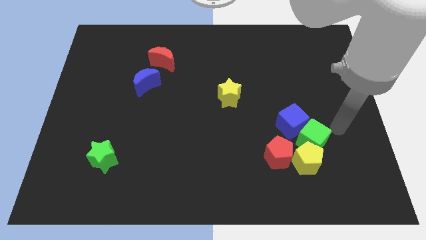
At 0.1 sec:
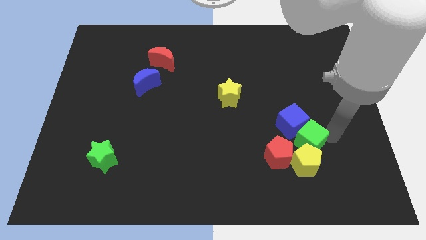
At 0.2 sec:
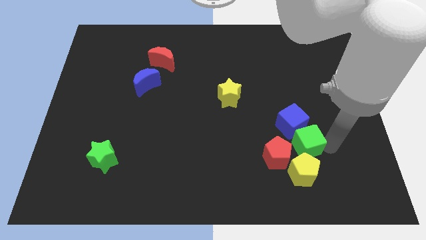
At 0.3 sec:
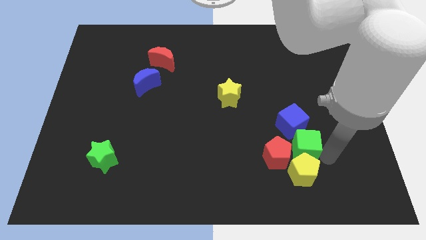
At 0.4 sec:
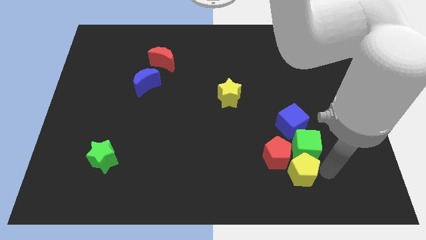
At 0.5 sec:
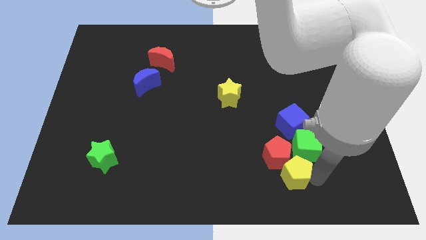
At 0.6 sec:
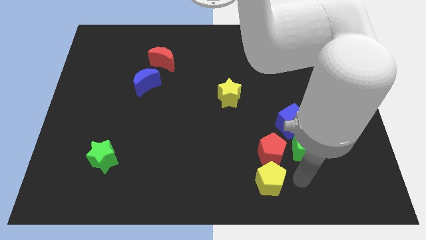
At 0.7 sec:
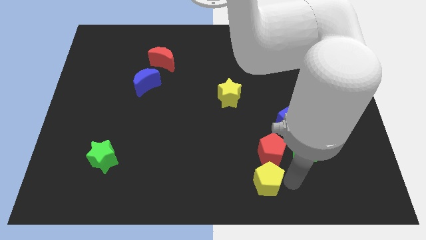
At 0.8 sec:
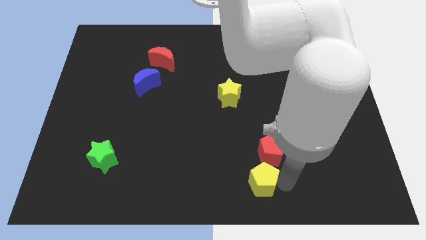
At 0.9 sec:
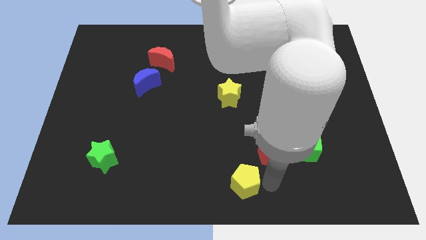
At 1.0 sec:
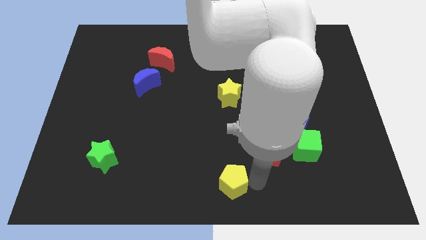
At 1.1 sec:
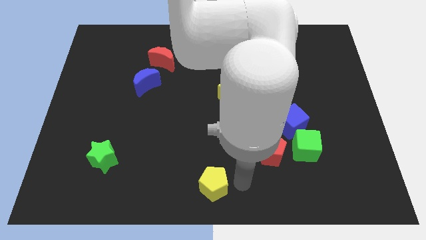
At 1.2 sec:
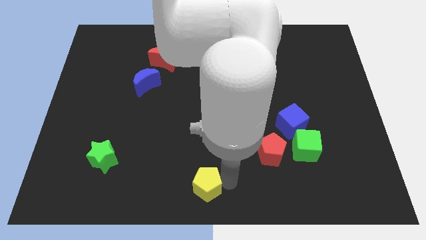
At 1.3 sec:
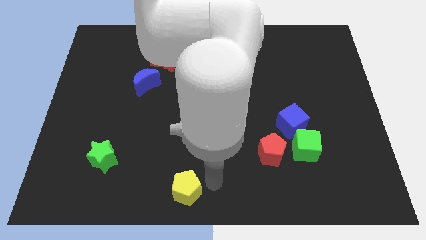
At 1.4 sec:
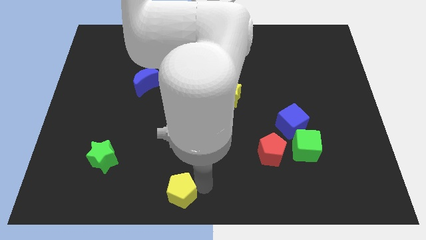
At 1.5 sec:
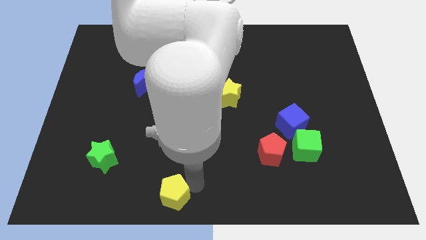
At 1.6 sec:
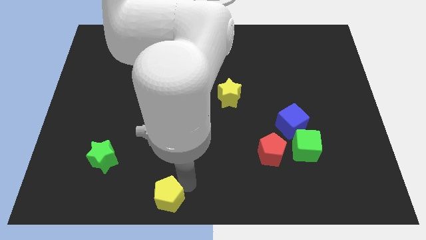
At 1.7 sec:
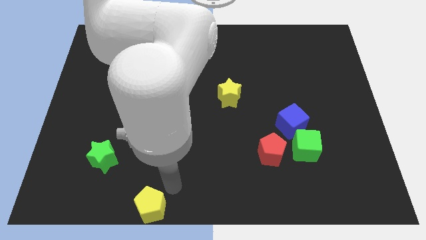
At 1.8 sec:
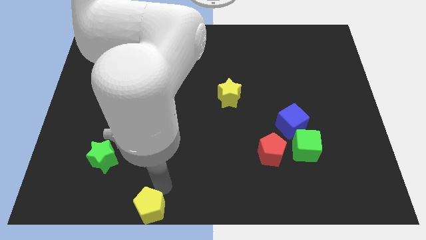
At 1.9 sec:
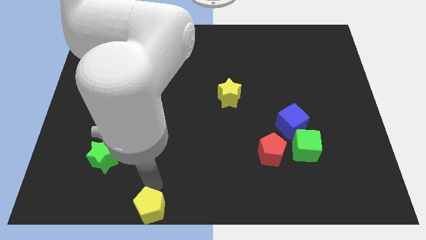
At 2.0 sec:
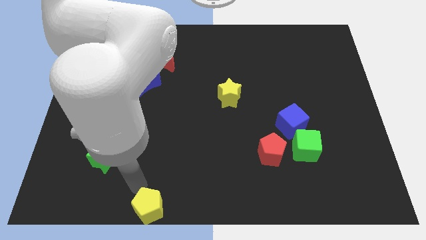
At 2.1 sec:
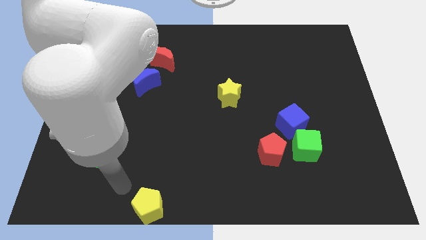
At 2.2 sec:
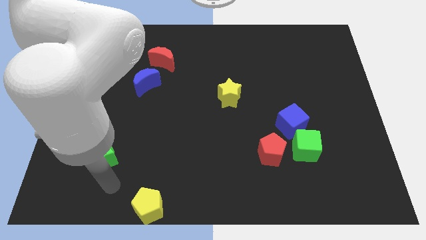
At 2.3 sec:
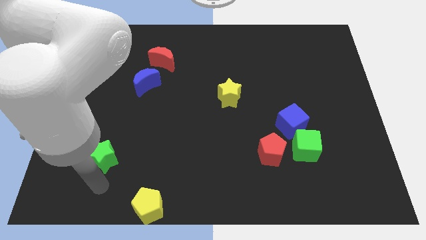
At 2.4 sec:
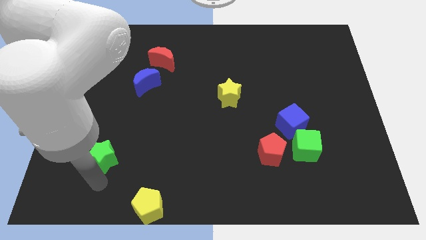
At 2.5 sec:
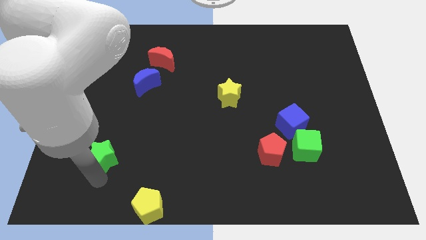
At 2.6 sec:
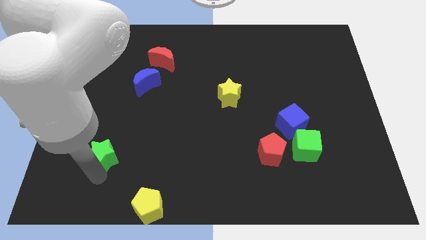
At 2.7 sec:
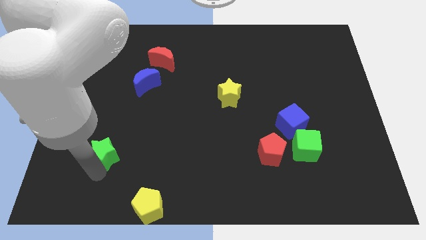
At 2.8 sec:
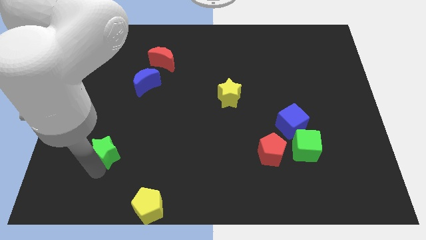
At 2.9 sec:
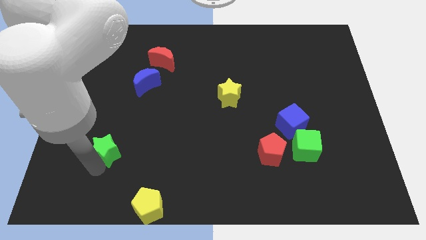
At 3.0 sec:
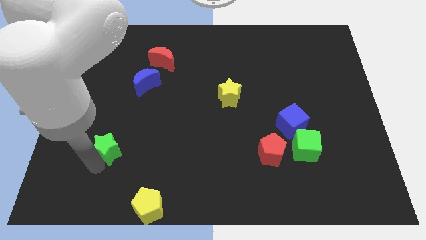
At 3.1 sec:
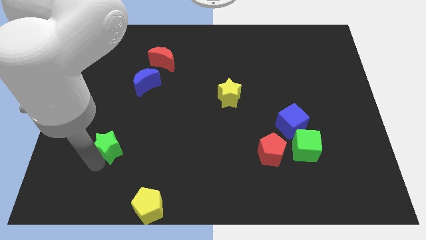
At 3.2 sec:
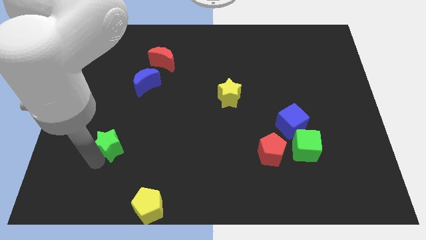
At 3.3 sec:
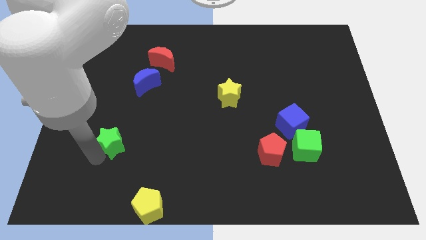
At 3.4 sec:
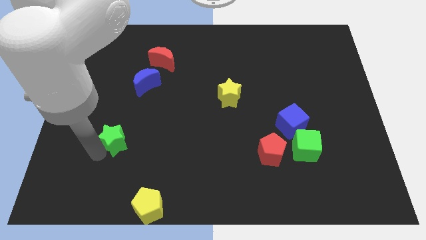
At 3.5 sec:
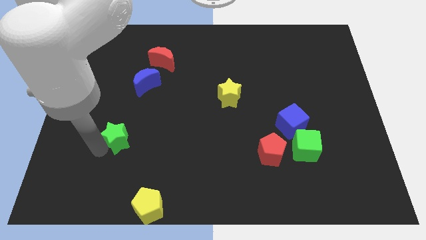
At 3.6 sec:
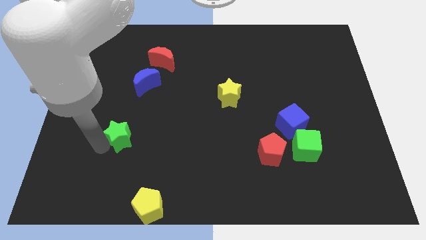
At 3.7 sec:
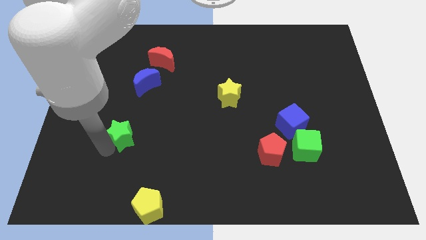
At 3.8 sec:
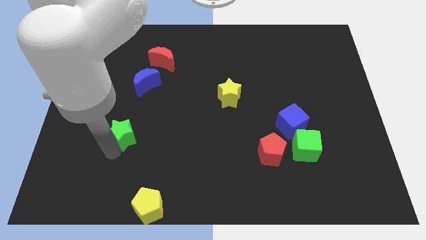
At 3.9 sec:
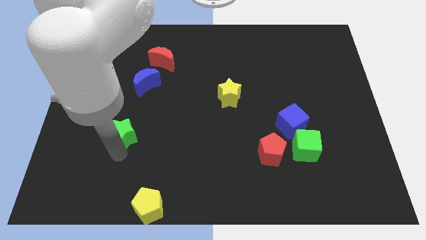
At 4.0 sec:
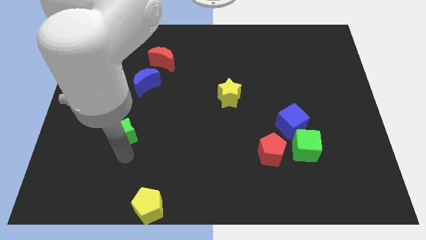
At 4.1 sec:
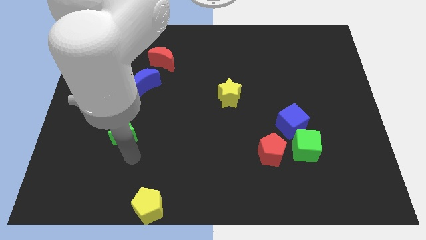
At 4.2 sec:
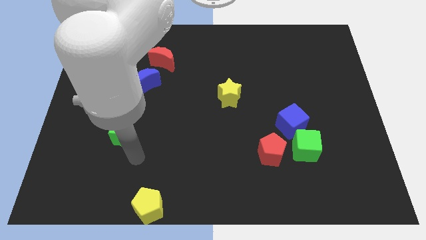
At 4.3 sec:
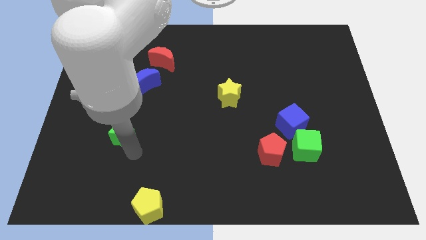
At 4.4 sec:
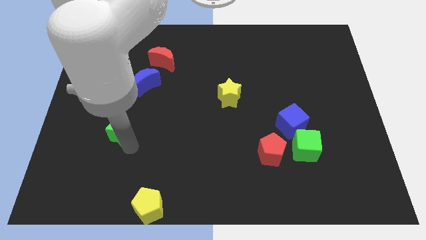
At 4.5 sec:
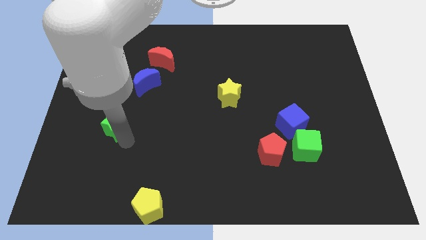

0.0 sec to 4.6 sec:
slightly move the green star upwards

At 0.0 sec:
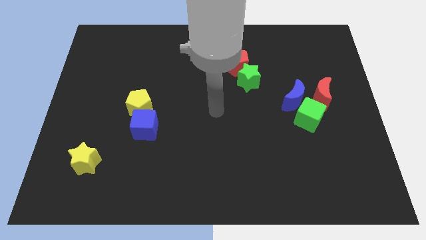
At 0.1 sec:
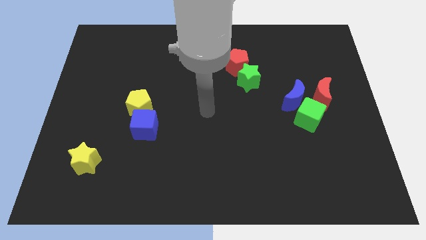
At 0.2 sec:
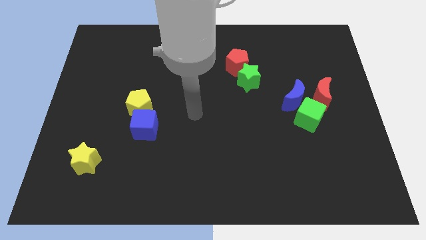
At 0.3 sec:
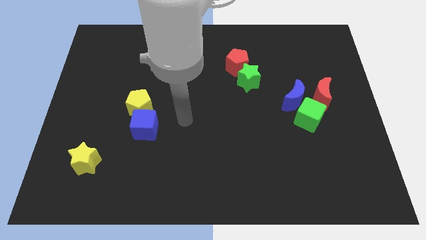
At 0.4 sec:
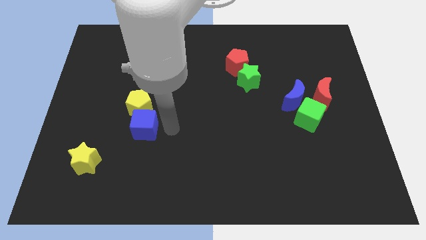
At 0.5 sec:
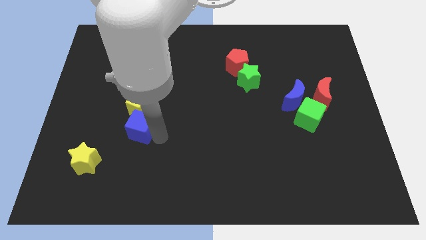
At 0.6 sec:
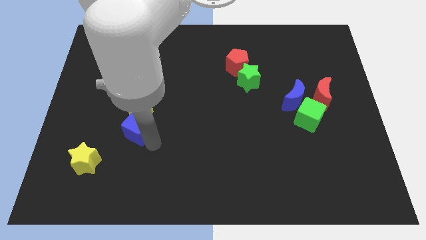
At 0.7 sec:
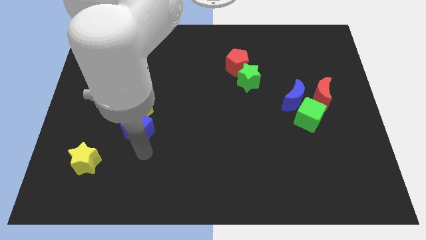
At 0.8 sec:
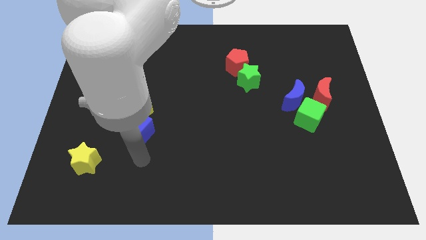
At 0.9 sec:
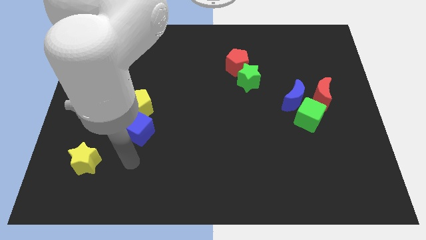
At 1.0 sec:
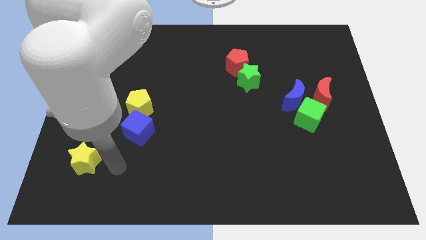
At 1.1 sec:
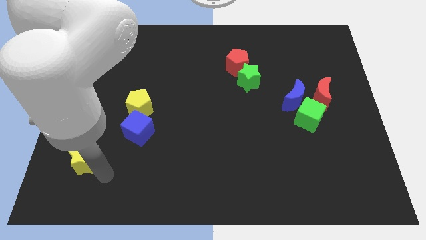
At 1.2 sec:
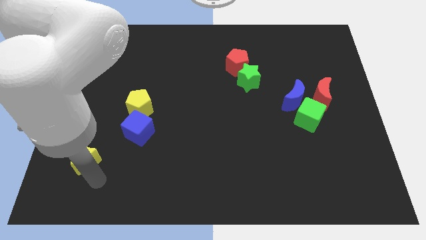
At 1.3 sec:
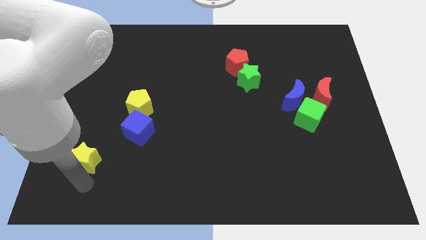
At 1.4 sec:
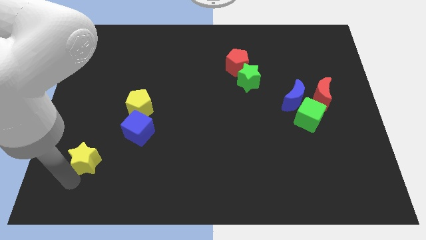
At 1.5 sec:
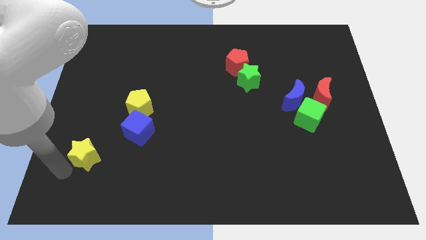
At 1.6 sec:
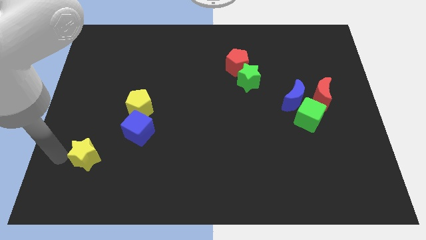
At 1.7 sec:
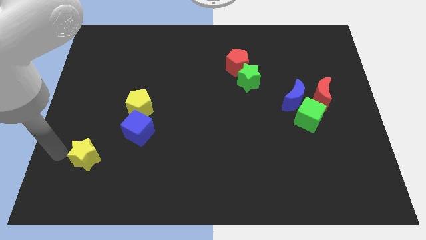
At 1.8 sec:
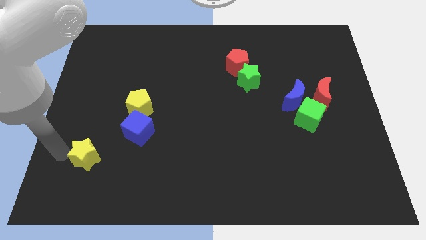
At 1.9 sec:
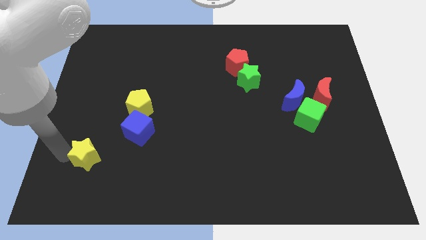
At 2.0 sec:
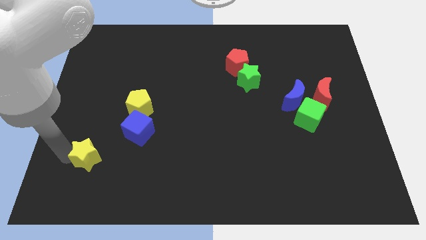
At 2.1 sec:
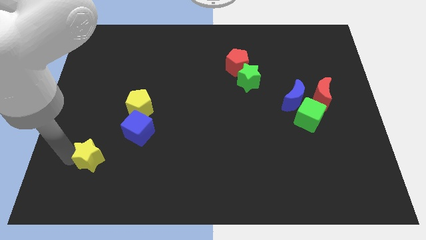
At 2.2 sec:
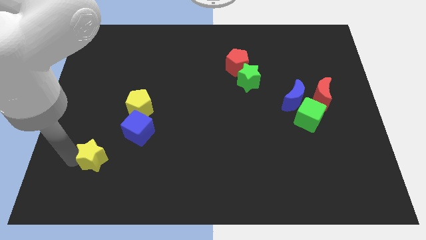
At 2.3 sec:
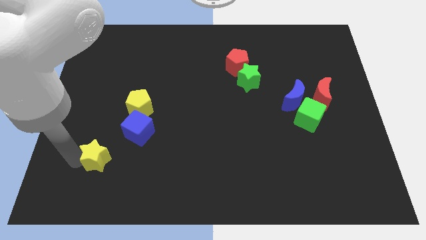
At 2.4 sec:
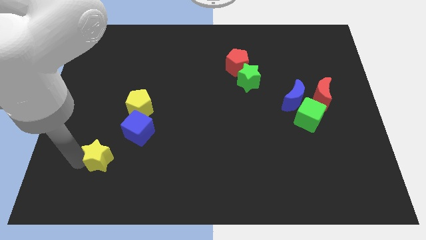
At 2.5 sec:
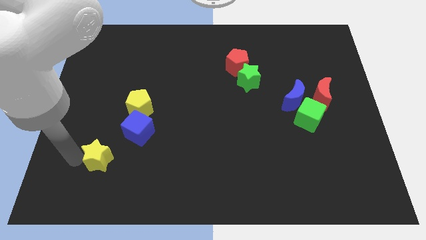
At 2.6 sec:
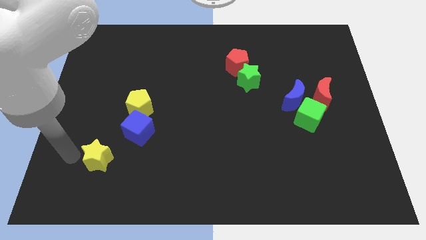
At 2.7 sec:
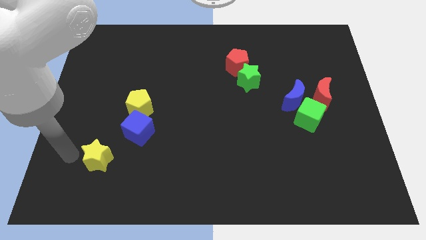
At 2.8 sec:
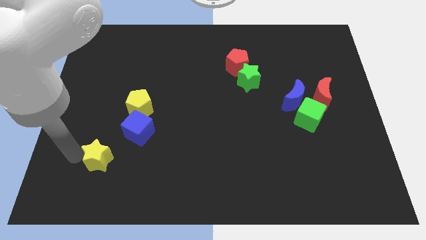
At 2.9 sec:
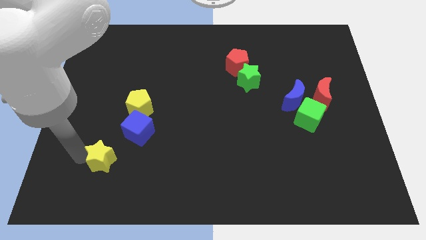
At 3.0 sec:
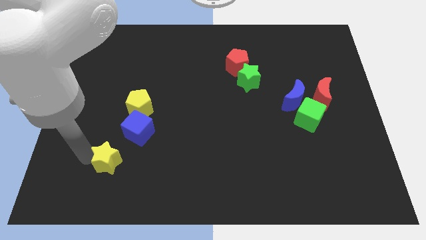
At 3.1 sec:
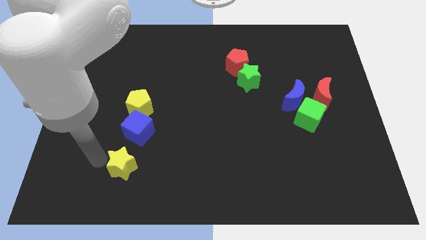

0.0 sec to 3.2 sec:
slightly move the yellow star right

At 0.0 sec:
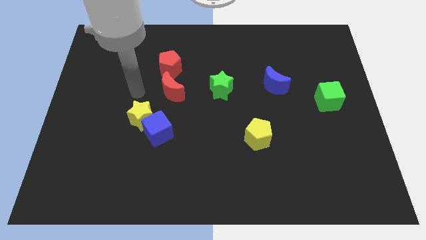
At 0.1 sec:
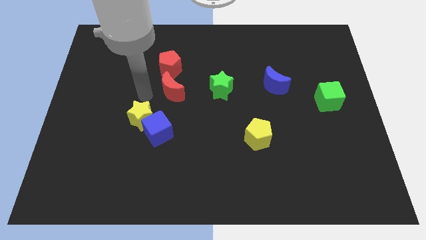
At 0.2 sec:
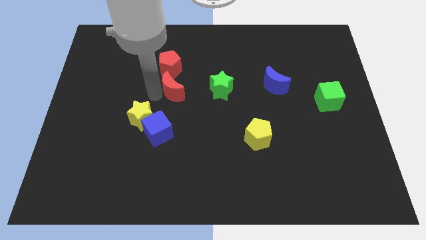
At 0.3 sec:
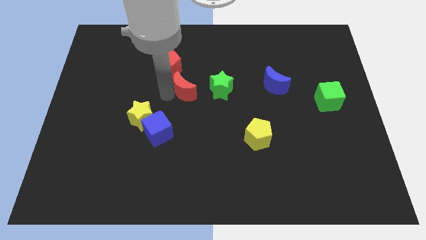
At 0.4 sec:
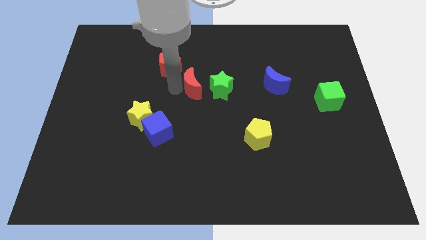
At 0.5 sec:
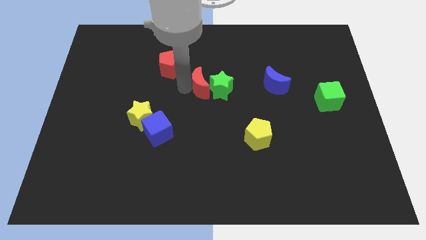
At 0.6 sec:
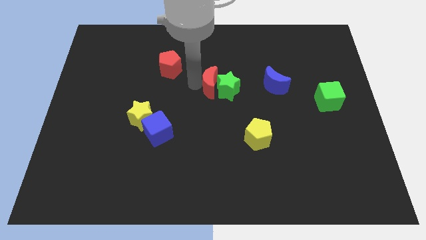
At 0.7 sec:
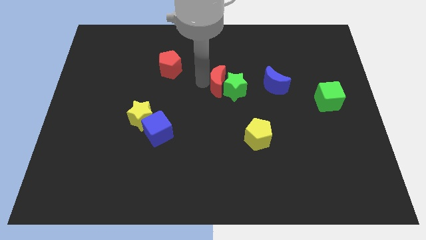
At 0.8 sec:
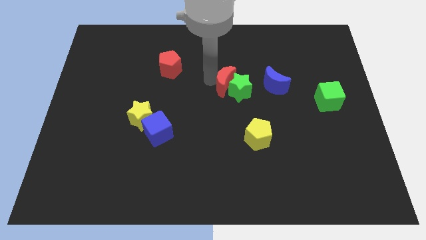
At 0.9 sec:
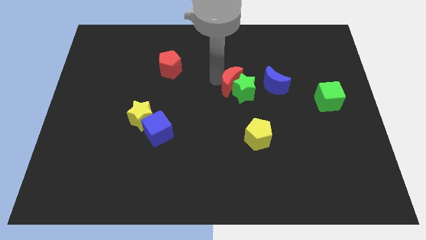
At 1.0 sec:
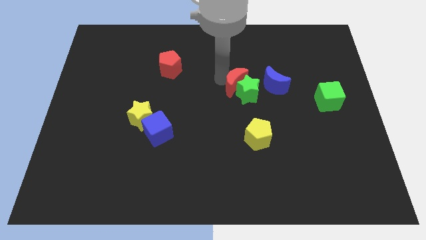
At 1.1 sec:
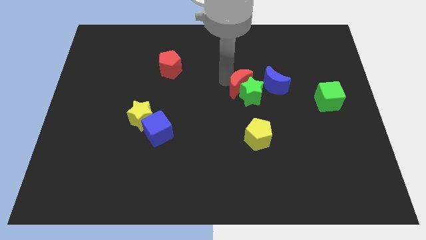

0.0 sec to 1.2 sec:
slide the green star to the right somewhat
